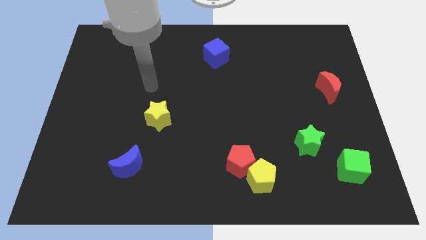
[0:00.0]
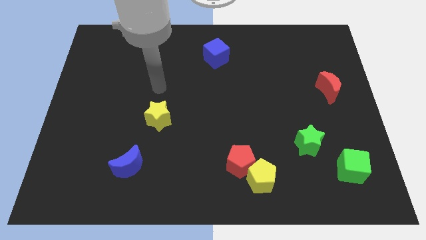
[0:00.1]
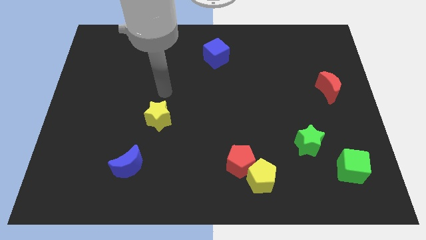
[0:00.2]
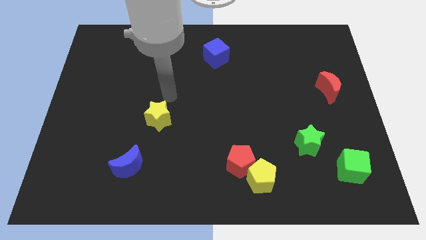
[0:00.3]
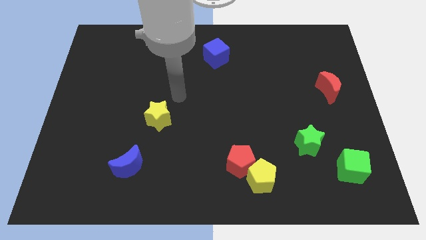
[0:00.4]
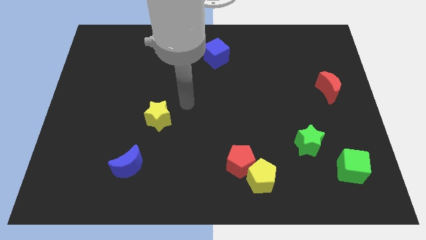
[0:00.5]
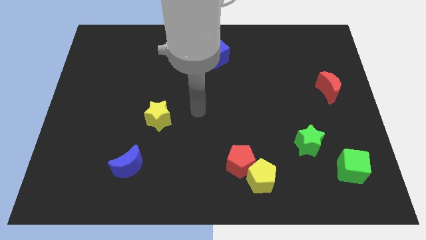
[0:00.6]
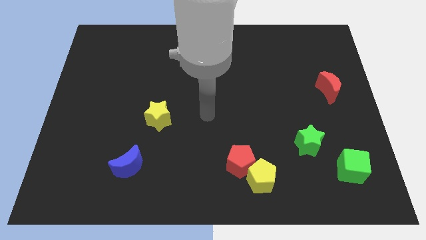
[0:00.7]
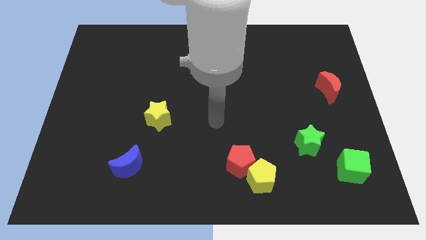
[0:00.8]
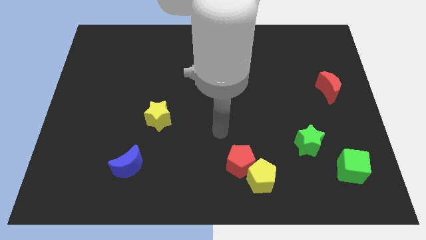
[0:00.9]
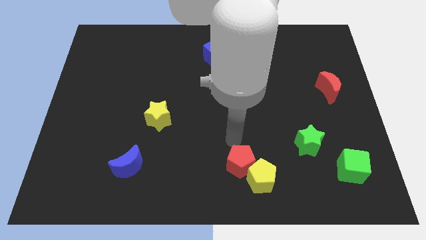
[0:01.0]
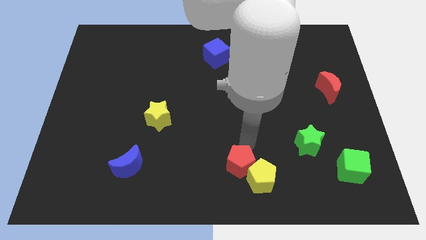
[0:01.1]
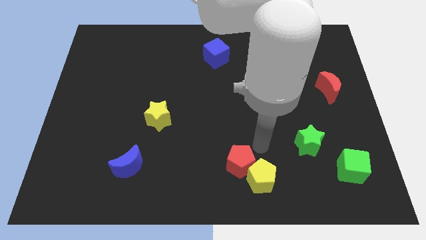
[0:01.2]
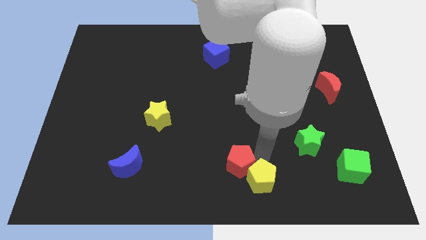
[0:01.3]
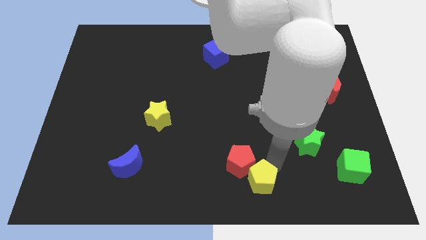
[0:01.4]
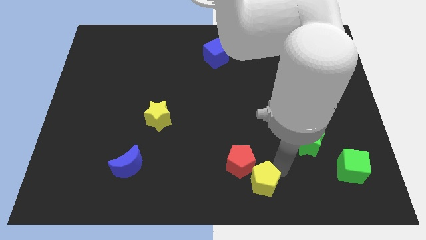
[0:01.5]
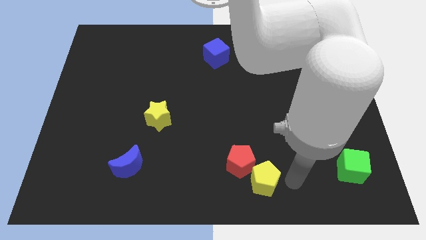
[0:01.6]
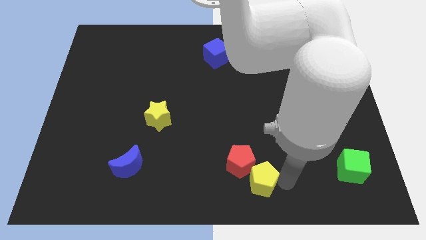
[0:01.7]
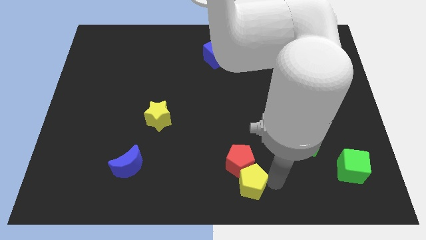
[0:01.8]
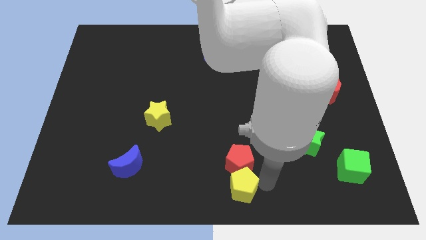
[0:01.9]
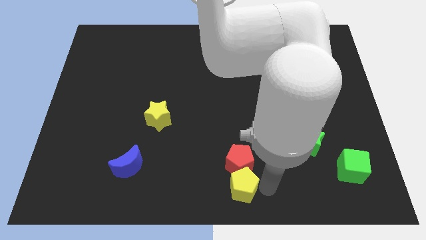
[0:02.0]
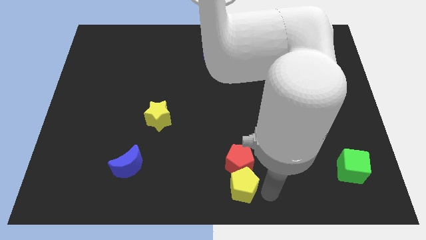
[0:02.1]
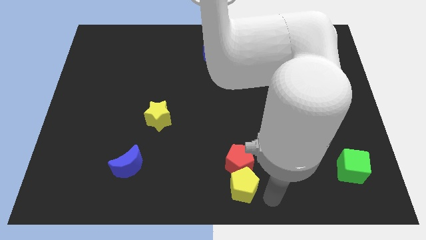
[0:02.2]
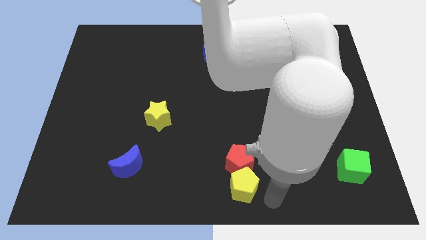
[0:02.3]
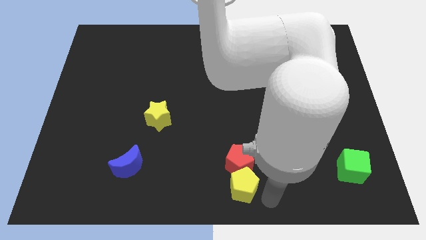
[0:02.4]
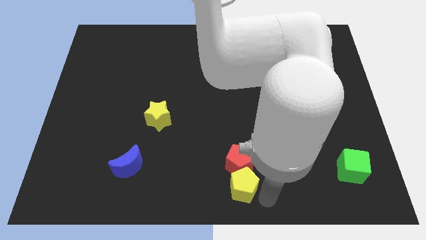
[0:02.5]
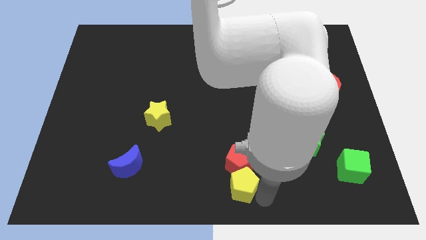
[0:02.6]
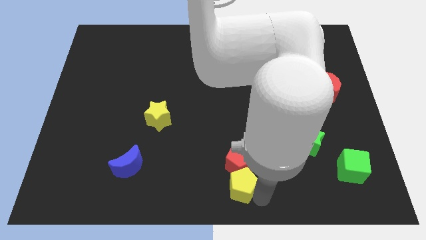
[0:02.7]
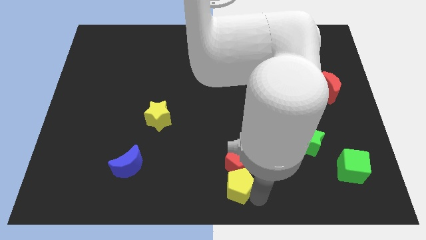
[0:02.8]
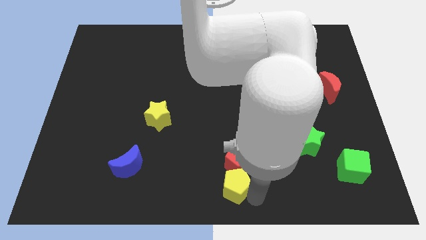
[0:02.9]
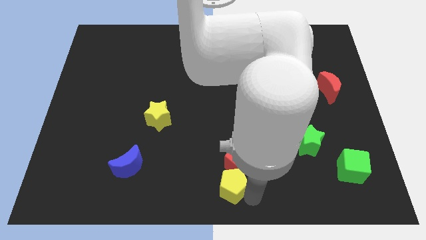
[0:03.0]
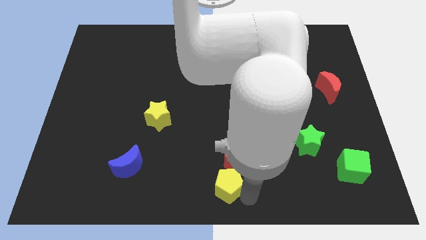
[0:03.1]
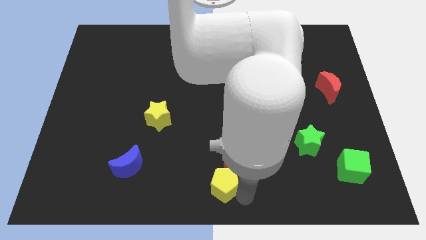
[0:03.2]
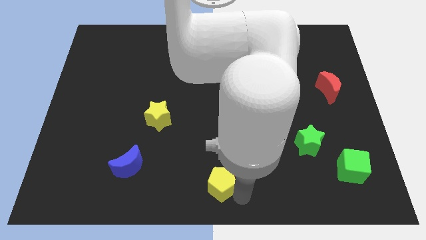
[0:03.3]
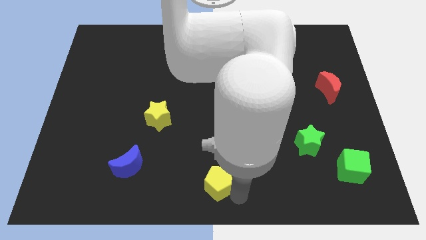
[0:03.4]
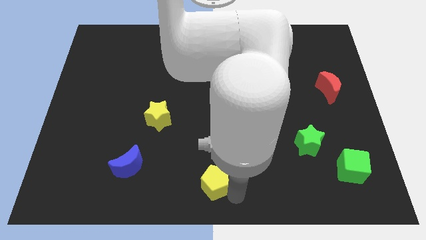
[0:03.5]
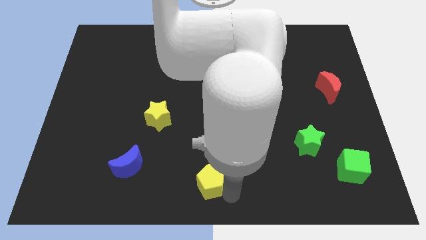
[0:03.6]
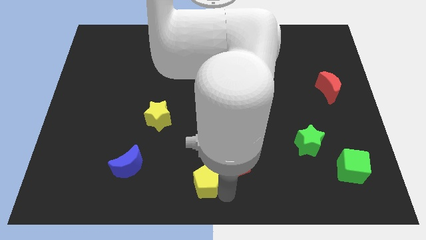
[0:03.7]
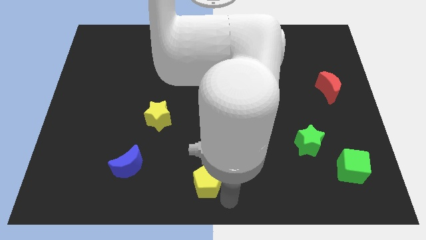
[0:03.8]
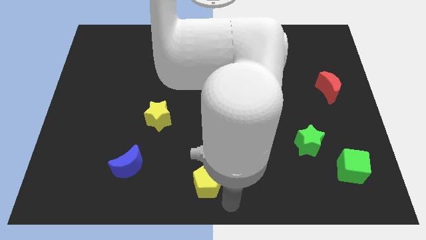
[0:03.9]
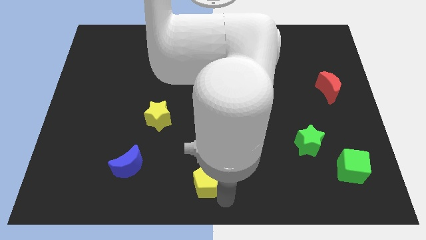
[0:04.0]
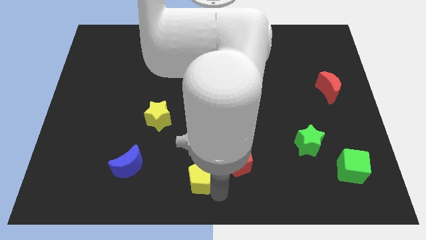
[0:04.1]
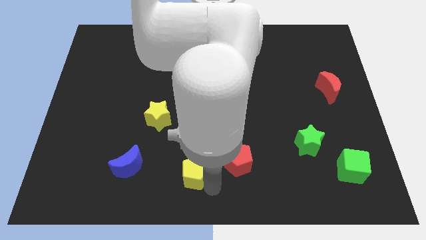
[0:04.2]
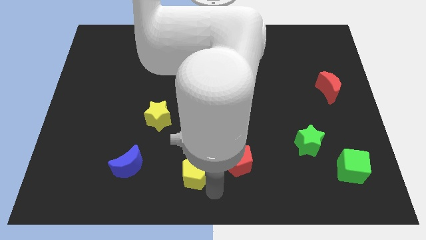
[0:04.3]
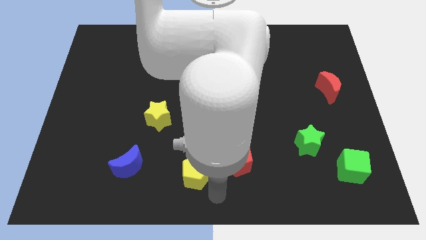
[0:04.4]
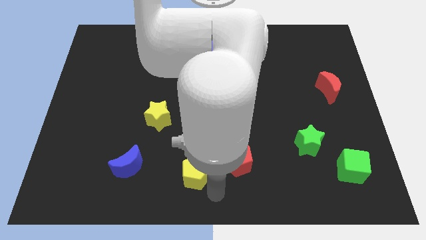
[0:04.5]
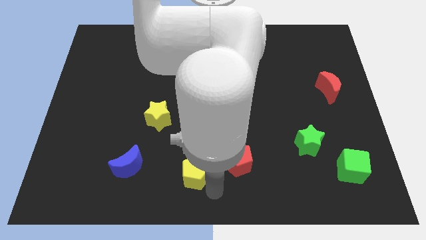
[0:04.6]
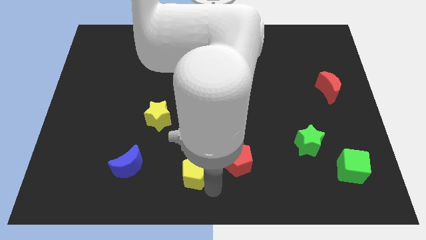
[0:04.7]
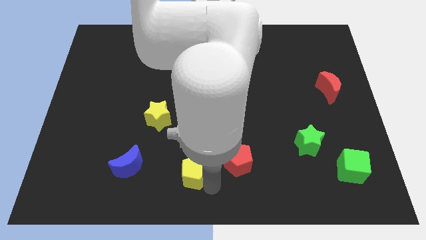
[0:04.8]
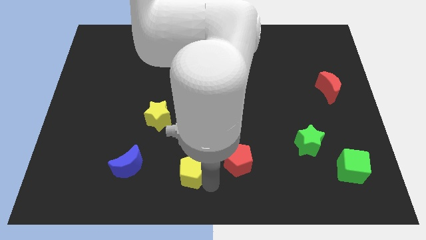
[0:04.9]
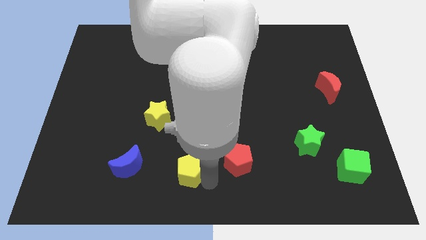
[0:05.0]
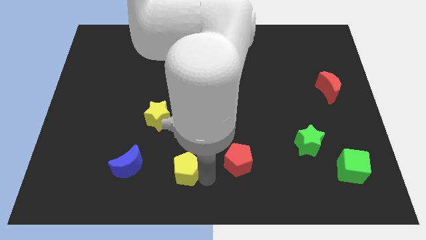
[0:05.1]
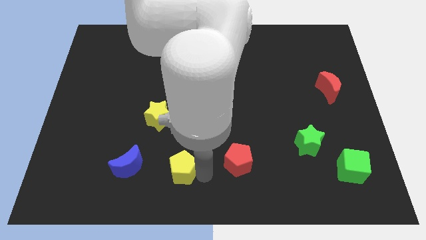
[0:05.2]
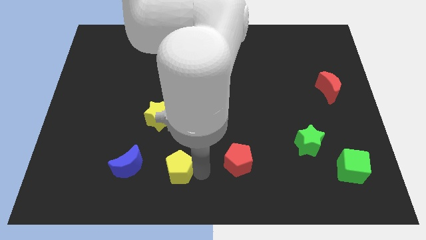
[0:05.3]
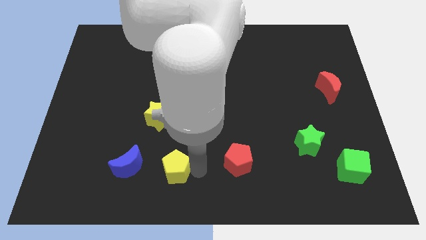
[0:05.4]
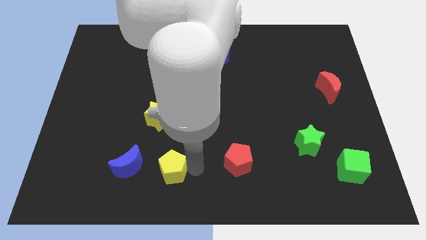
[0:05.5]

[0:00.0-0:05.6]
slide the yellow pentagon to the bottom side of the yellow star
